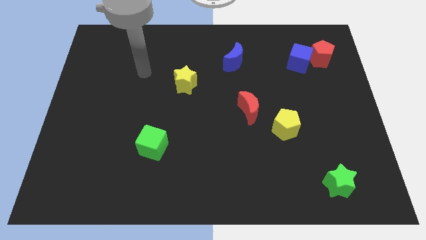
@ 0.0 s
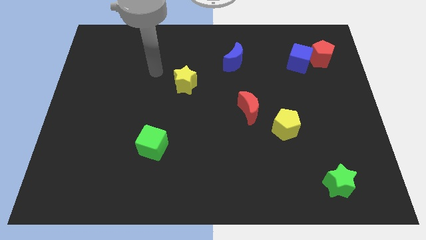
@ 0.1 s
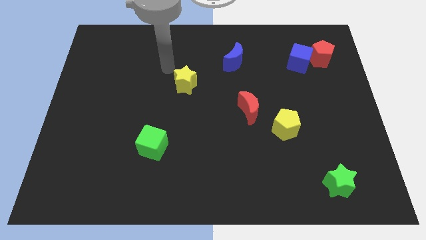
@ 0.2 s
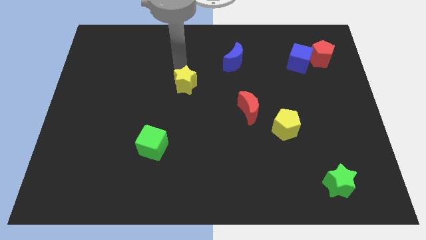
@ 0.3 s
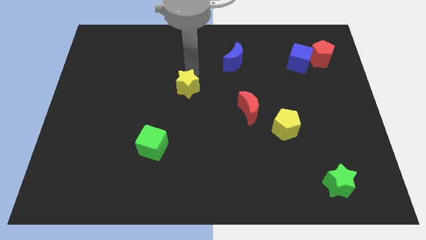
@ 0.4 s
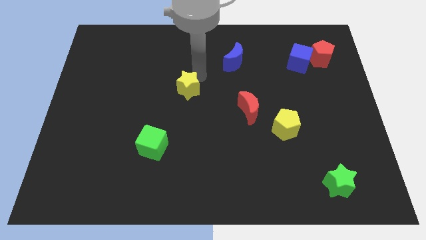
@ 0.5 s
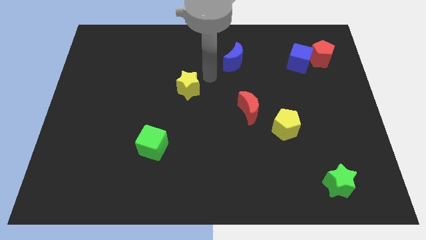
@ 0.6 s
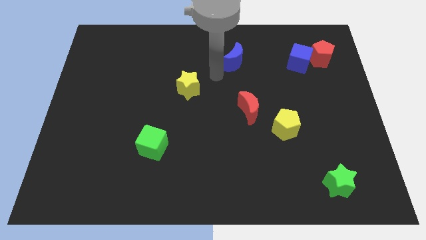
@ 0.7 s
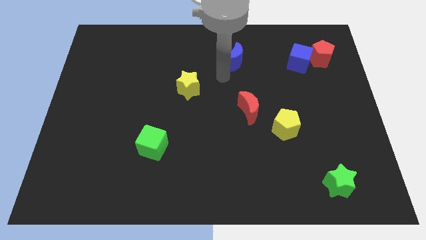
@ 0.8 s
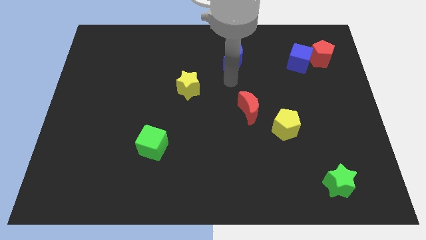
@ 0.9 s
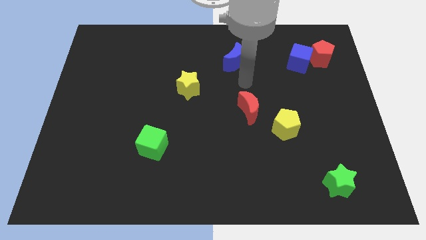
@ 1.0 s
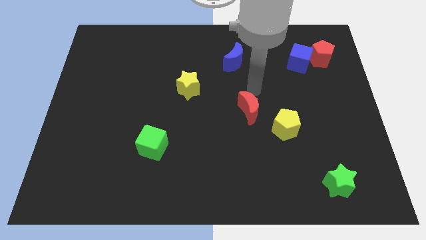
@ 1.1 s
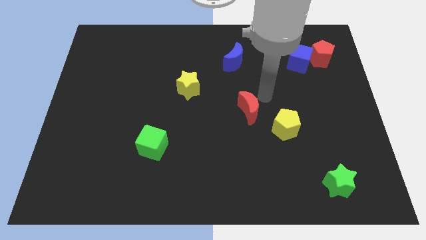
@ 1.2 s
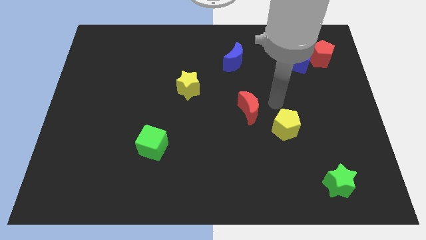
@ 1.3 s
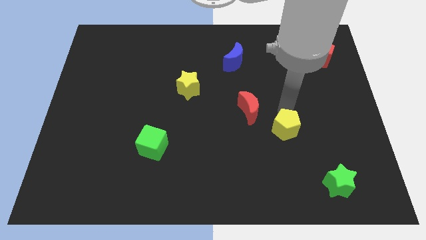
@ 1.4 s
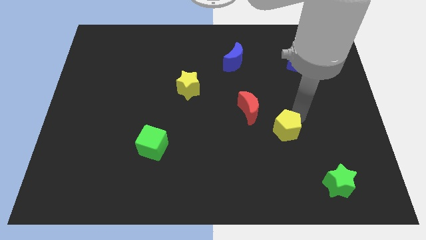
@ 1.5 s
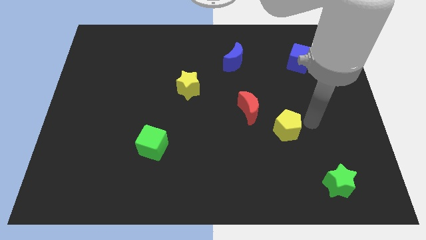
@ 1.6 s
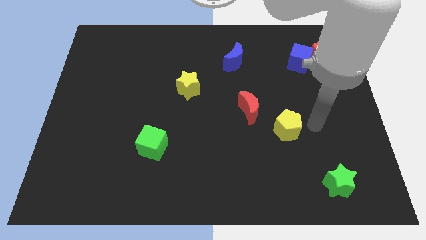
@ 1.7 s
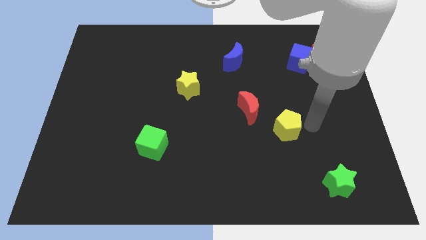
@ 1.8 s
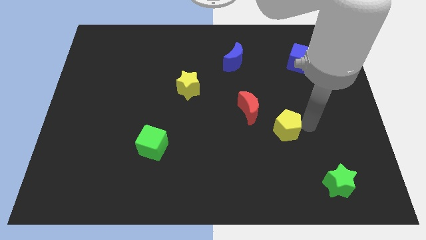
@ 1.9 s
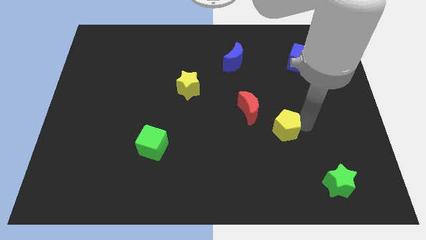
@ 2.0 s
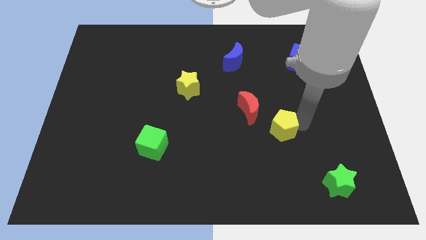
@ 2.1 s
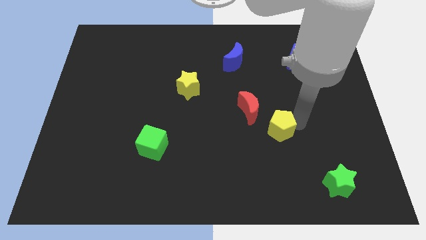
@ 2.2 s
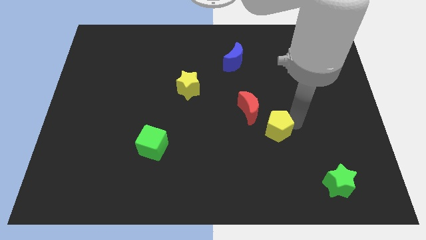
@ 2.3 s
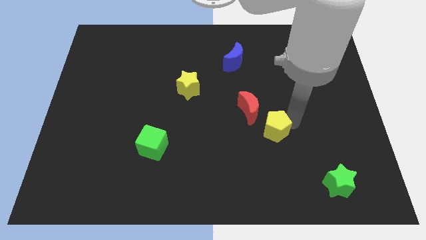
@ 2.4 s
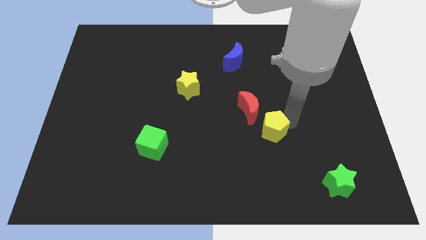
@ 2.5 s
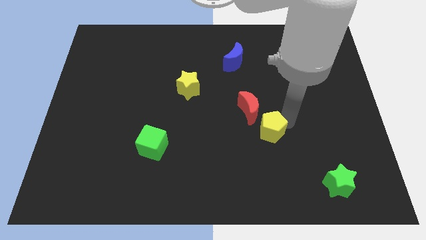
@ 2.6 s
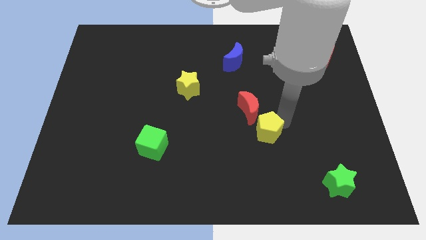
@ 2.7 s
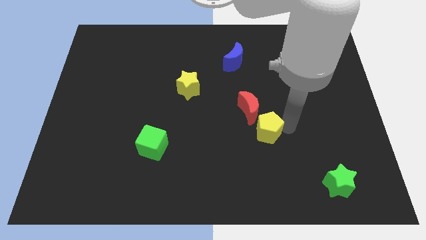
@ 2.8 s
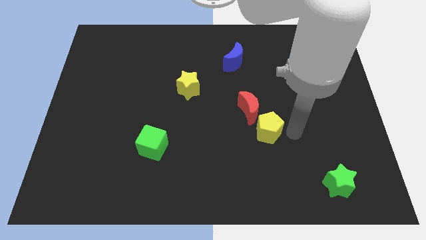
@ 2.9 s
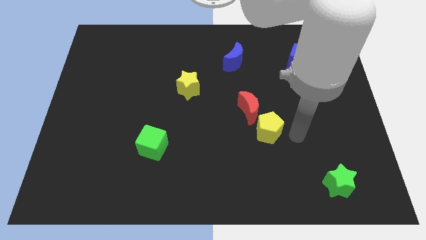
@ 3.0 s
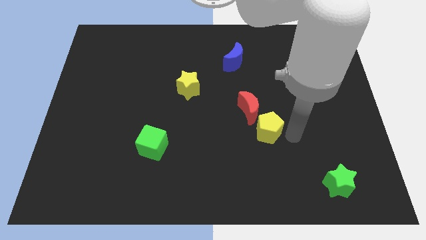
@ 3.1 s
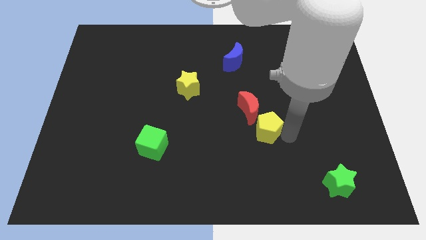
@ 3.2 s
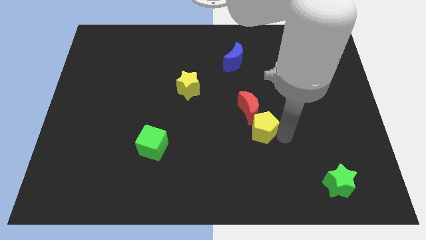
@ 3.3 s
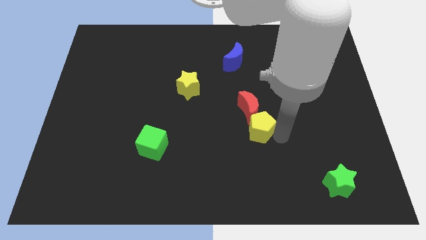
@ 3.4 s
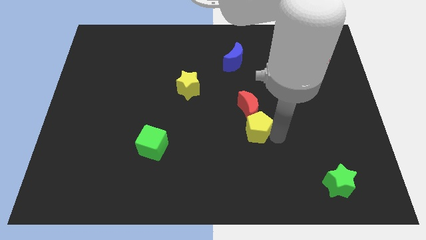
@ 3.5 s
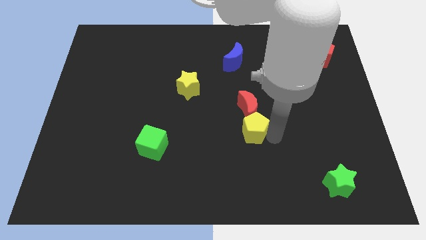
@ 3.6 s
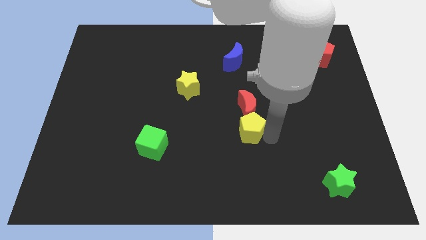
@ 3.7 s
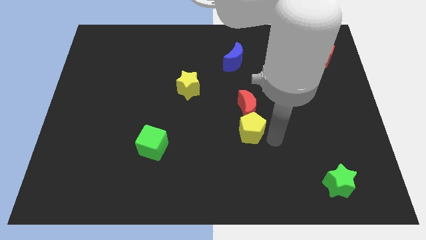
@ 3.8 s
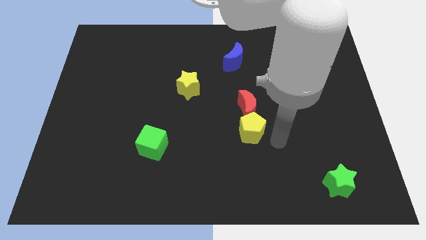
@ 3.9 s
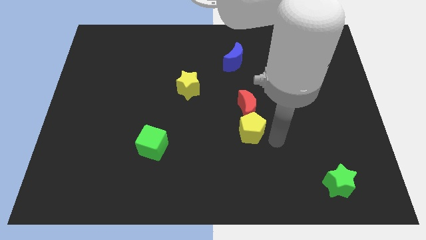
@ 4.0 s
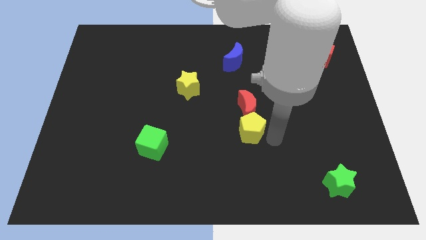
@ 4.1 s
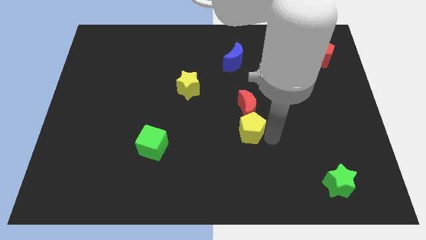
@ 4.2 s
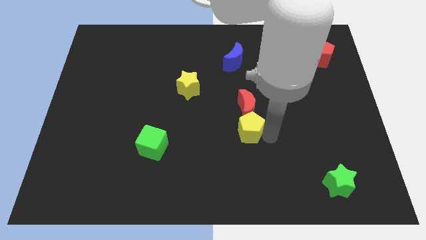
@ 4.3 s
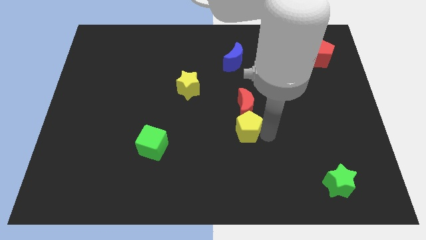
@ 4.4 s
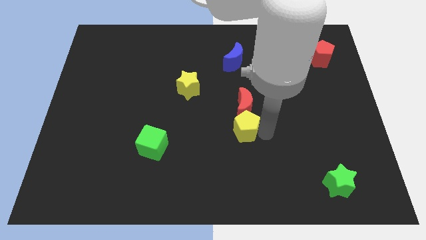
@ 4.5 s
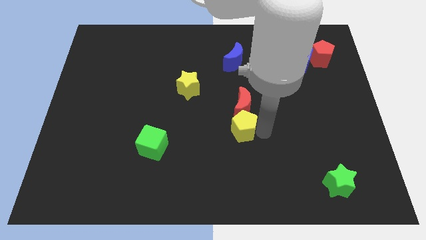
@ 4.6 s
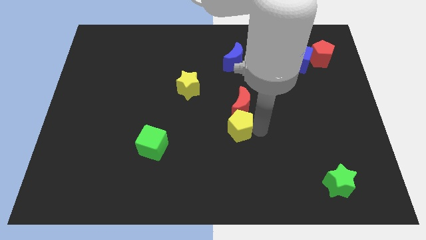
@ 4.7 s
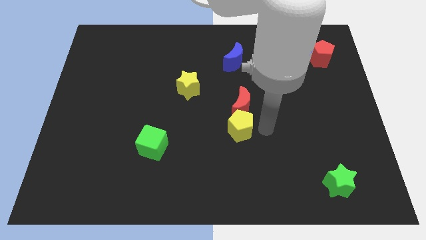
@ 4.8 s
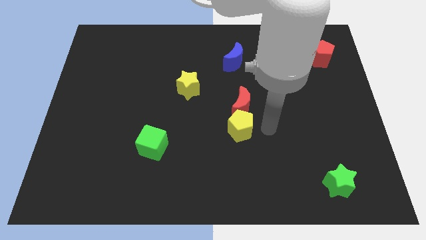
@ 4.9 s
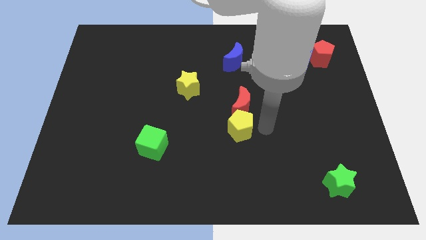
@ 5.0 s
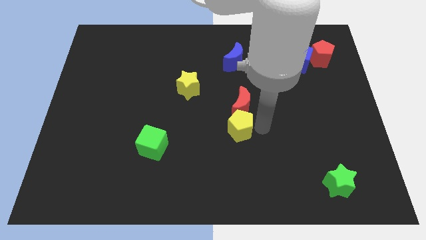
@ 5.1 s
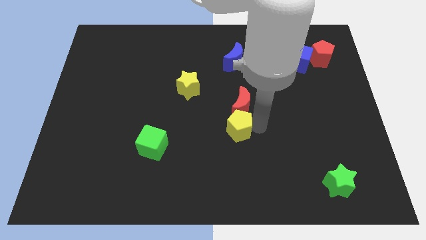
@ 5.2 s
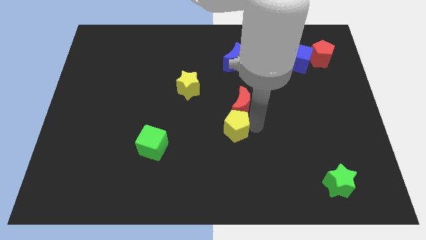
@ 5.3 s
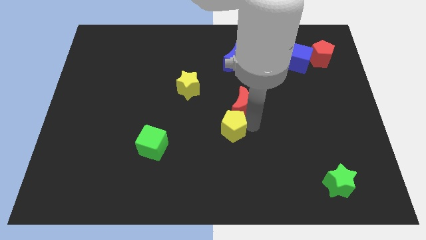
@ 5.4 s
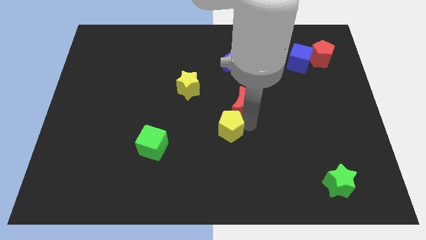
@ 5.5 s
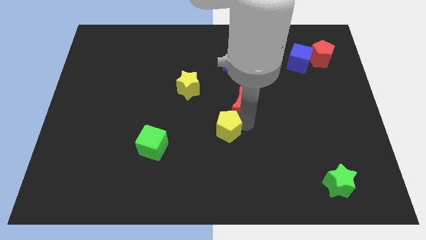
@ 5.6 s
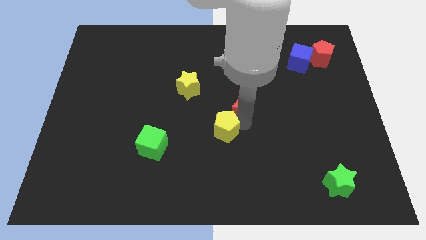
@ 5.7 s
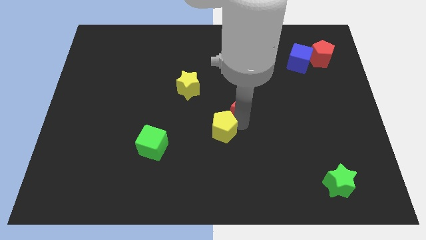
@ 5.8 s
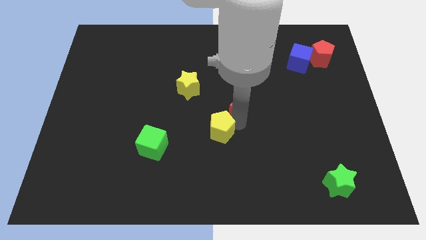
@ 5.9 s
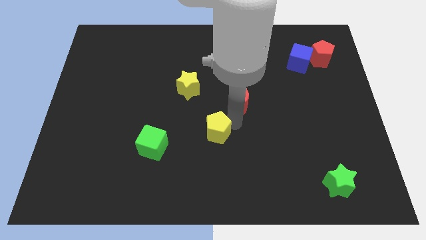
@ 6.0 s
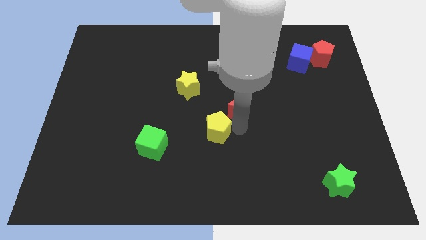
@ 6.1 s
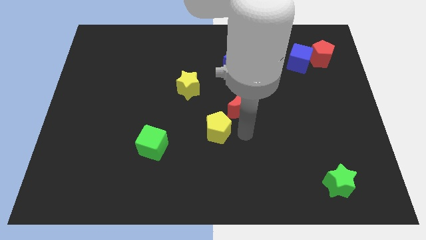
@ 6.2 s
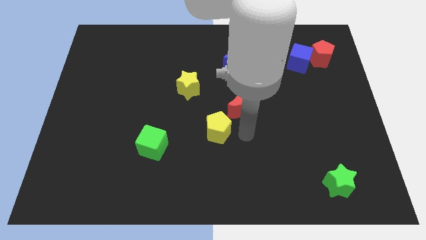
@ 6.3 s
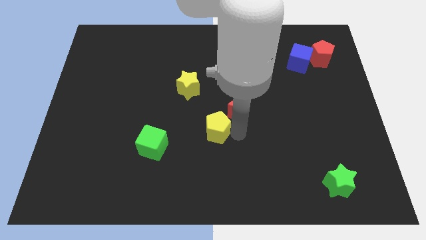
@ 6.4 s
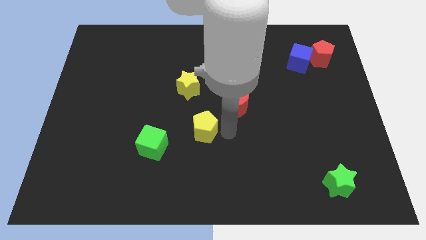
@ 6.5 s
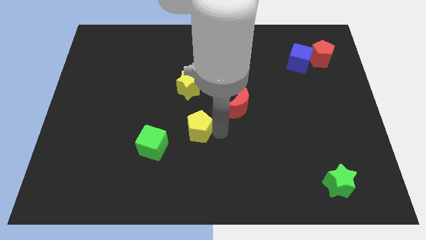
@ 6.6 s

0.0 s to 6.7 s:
put the yellow pentagon diagonally up and to the right of the green cube

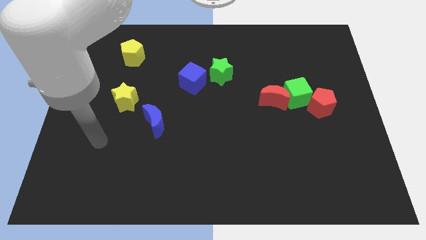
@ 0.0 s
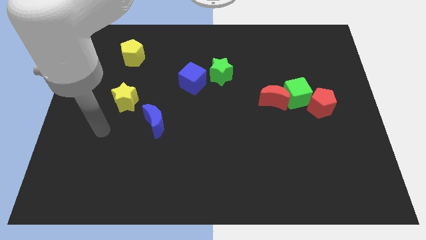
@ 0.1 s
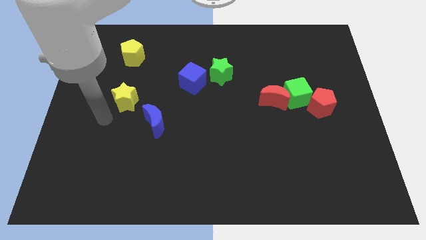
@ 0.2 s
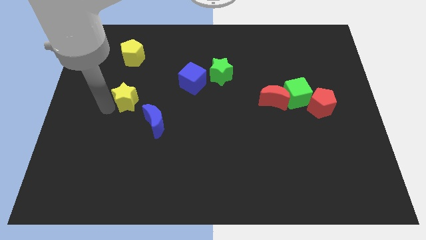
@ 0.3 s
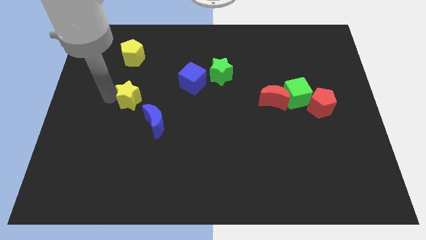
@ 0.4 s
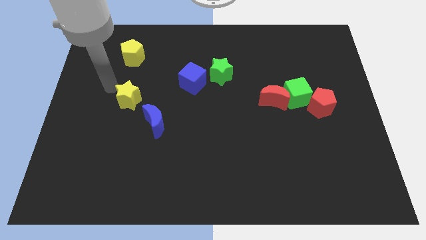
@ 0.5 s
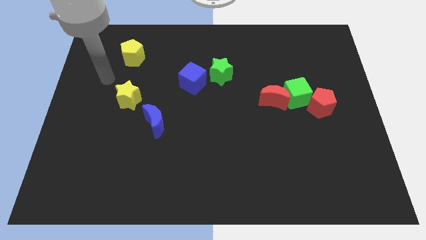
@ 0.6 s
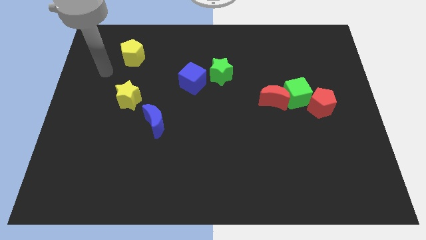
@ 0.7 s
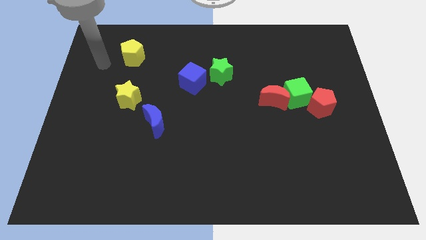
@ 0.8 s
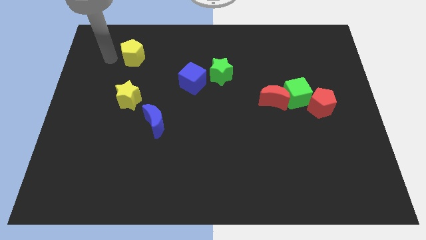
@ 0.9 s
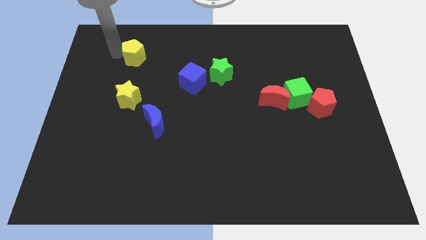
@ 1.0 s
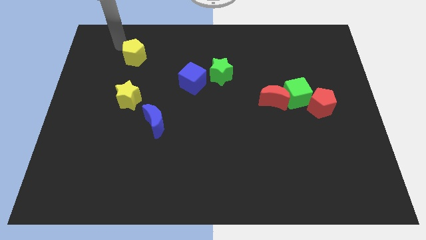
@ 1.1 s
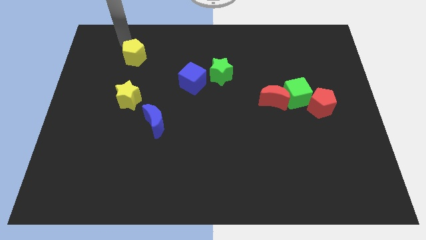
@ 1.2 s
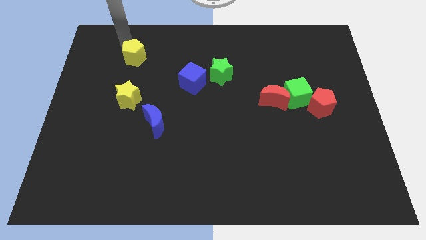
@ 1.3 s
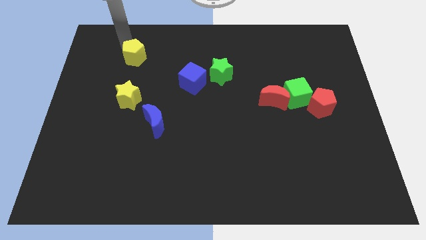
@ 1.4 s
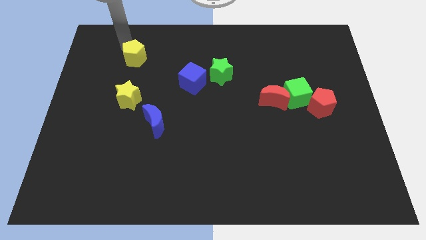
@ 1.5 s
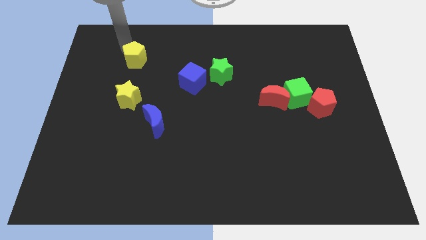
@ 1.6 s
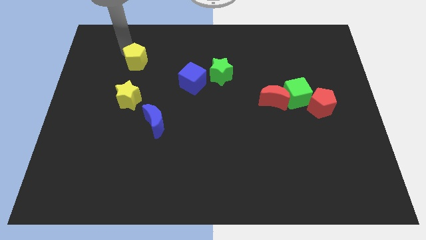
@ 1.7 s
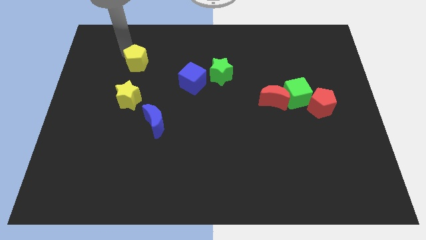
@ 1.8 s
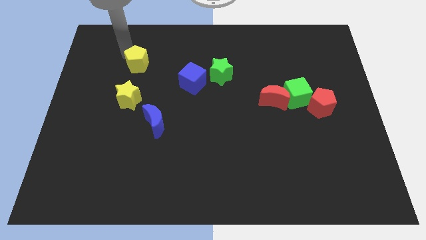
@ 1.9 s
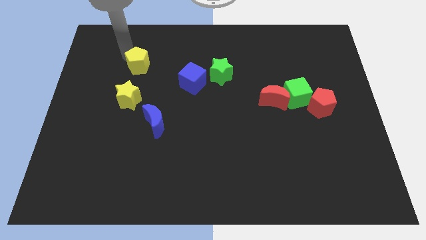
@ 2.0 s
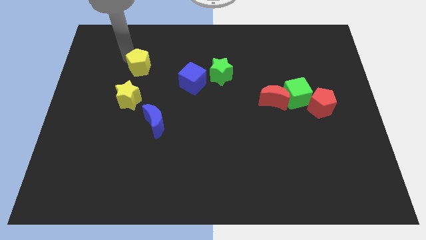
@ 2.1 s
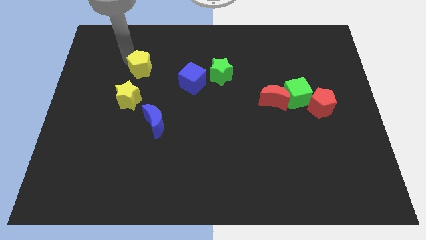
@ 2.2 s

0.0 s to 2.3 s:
push the yellow pentagon left of the blue cube
